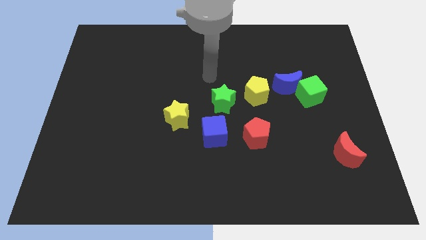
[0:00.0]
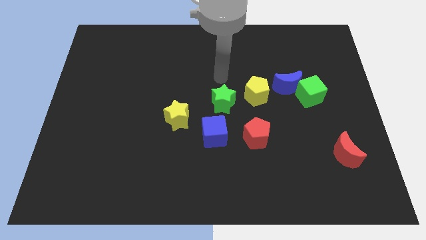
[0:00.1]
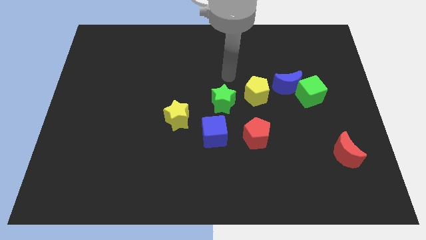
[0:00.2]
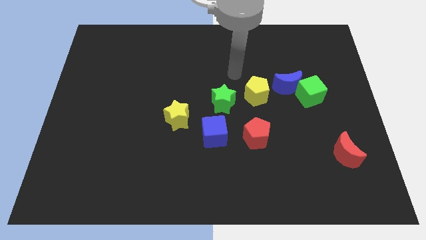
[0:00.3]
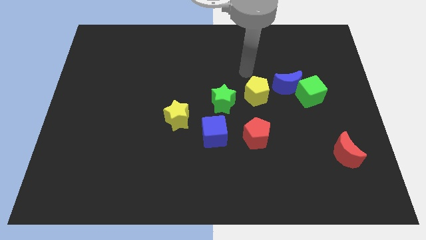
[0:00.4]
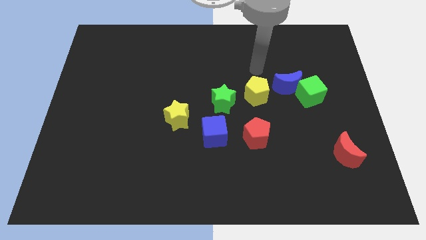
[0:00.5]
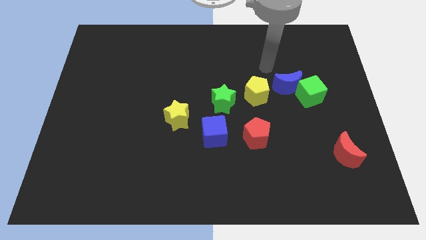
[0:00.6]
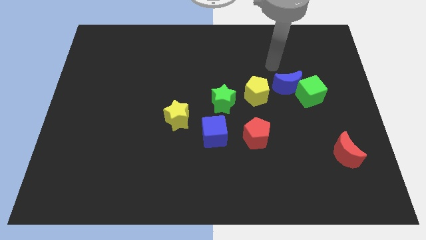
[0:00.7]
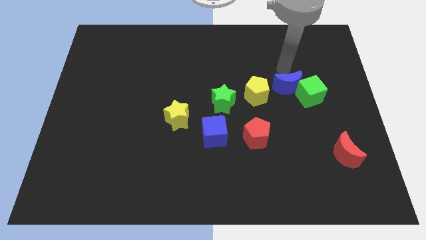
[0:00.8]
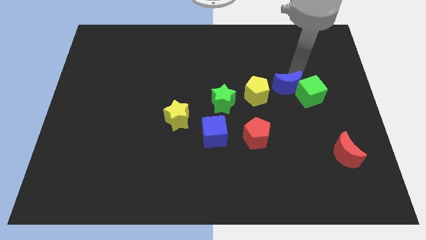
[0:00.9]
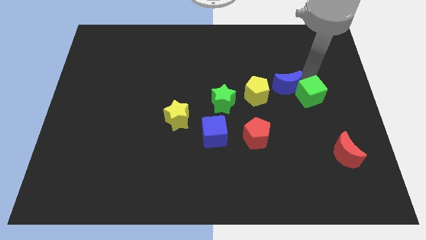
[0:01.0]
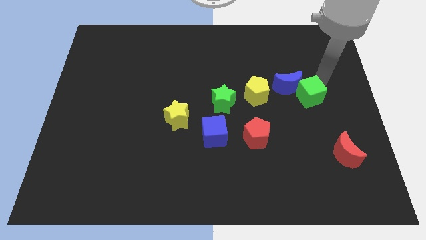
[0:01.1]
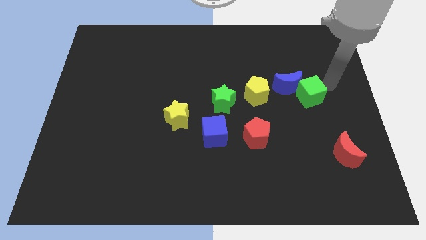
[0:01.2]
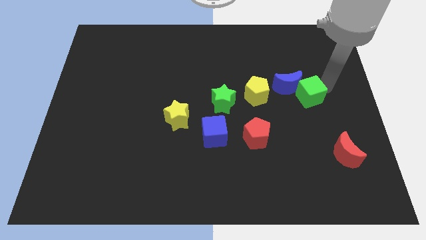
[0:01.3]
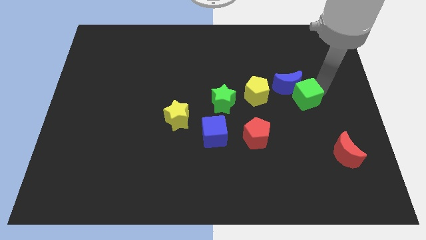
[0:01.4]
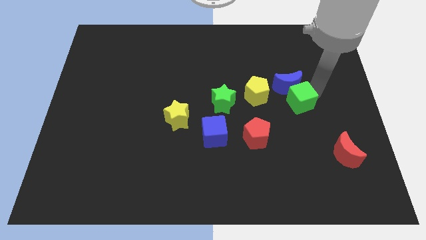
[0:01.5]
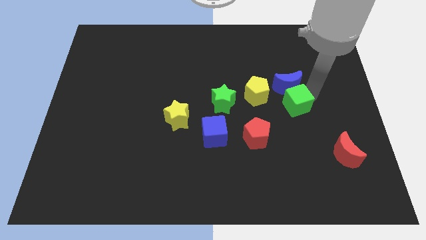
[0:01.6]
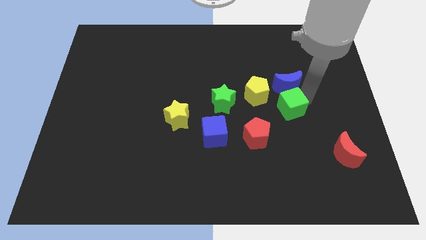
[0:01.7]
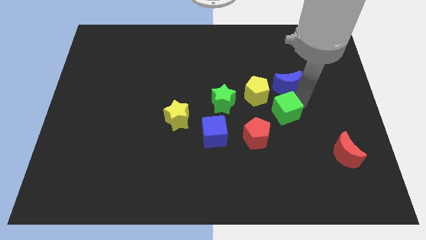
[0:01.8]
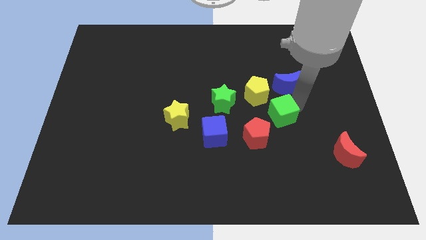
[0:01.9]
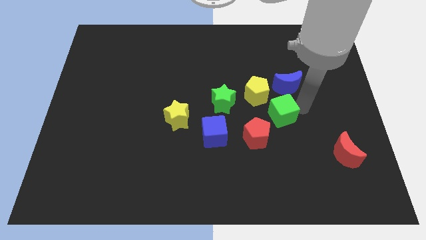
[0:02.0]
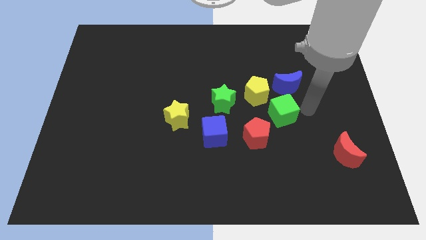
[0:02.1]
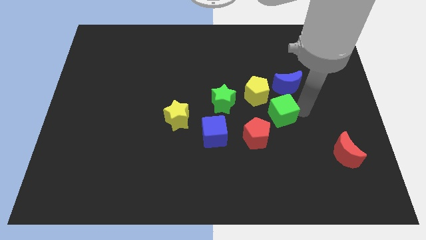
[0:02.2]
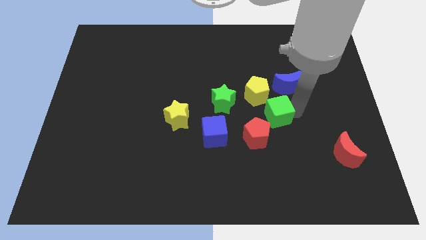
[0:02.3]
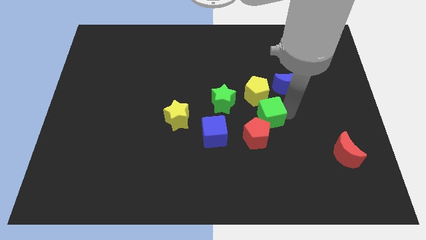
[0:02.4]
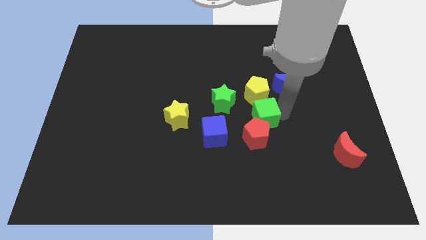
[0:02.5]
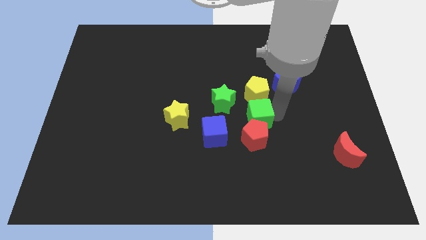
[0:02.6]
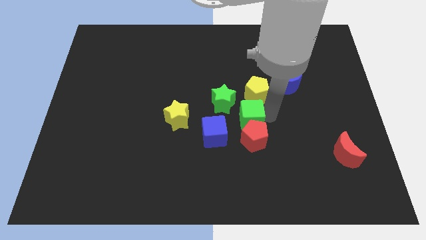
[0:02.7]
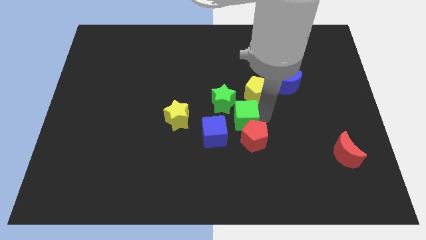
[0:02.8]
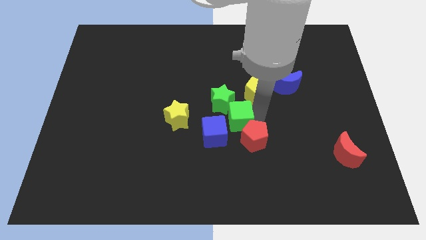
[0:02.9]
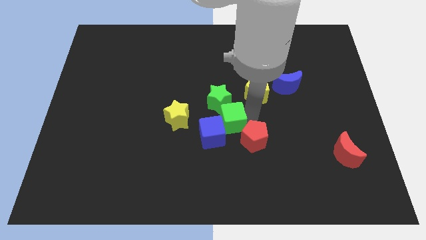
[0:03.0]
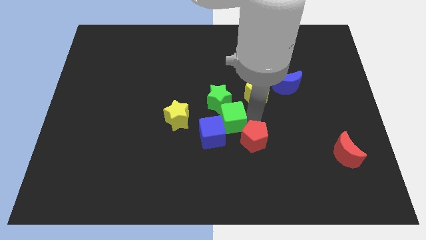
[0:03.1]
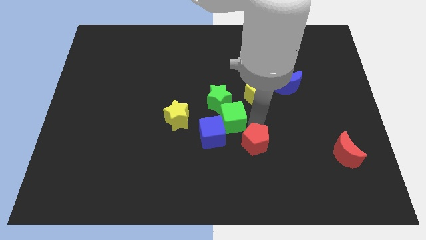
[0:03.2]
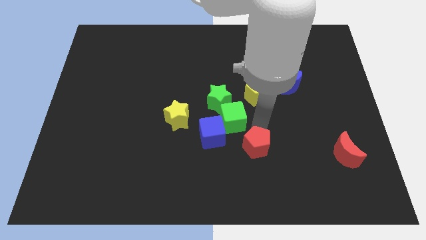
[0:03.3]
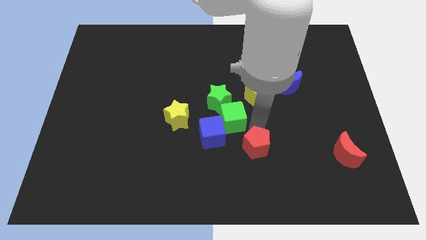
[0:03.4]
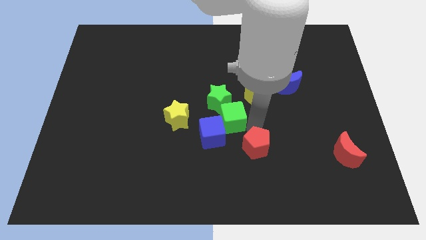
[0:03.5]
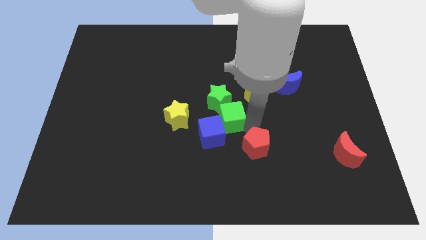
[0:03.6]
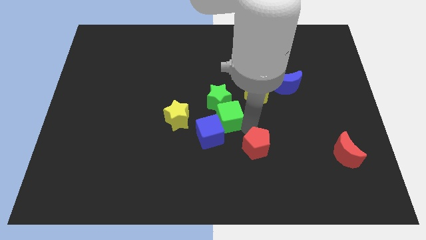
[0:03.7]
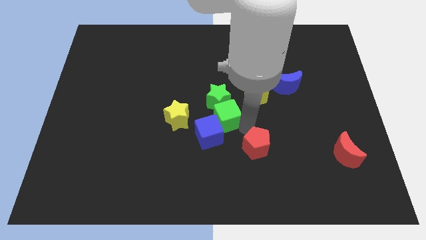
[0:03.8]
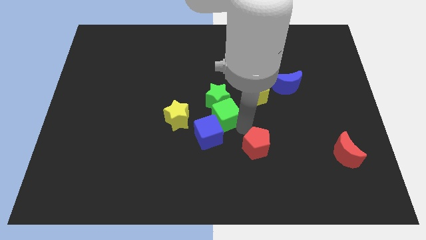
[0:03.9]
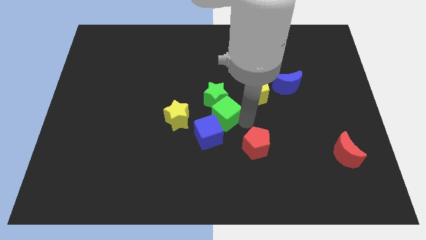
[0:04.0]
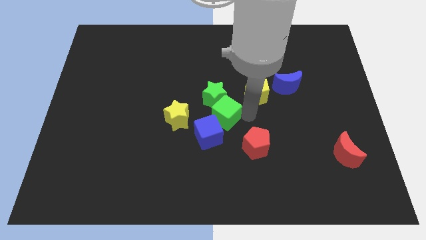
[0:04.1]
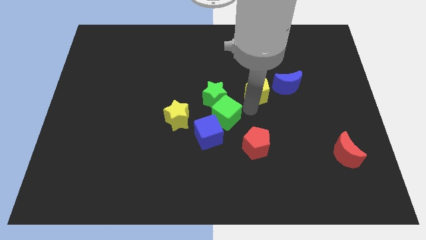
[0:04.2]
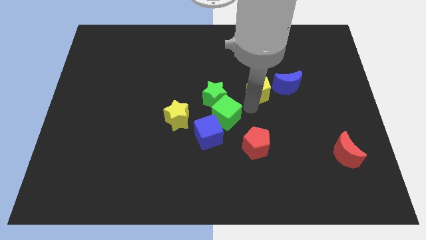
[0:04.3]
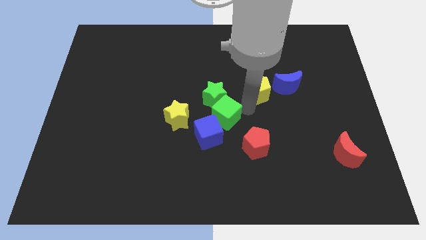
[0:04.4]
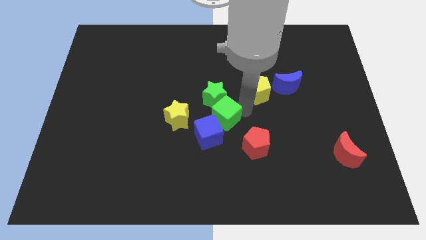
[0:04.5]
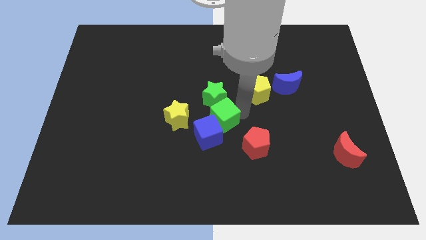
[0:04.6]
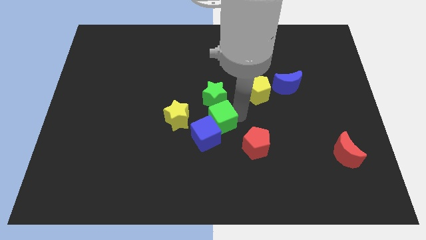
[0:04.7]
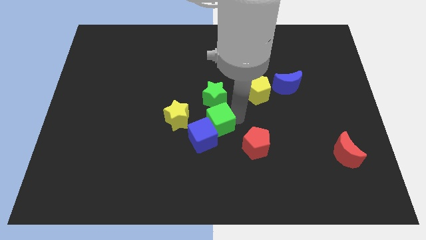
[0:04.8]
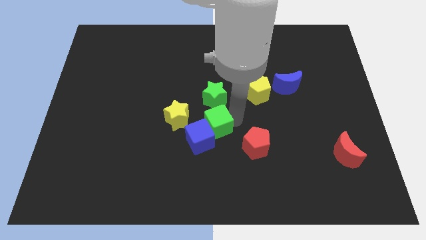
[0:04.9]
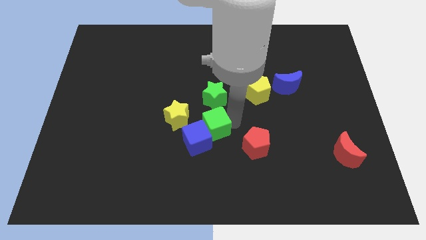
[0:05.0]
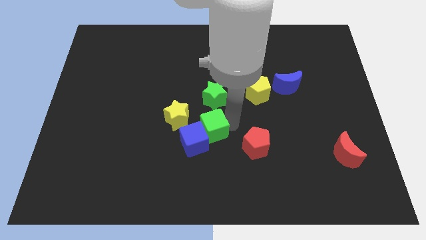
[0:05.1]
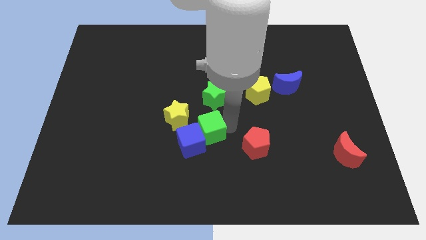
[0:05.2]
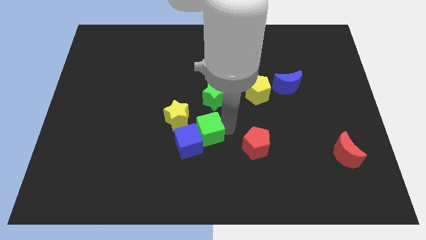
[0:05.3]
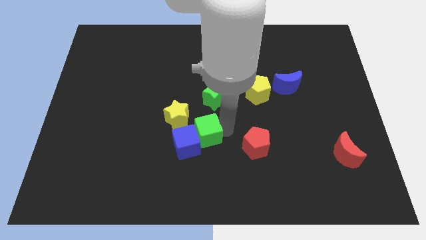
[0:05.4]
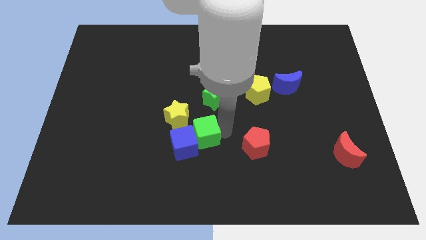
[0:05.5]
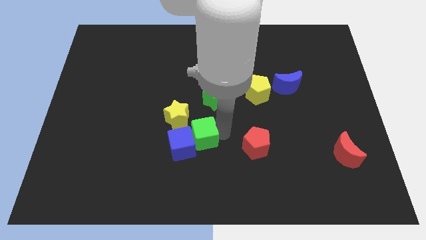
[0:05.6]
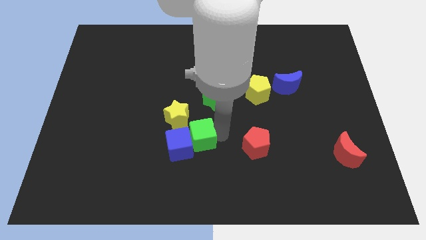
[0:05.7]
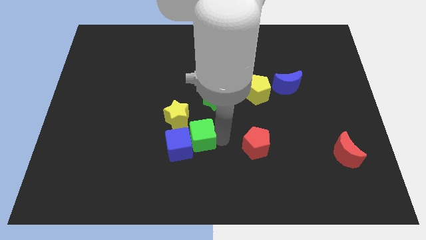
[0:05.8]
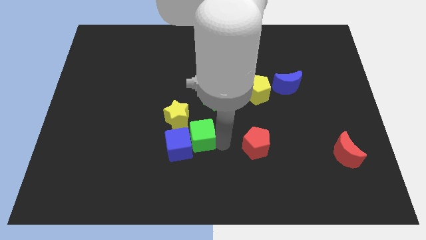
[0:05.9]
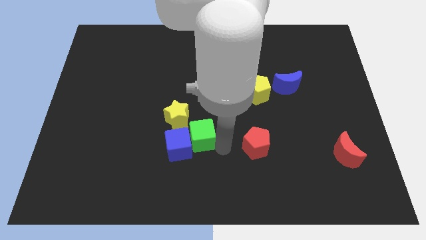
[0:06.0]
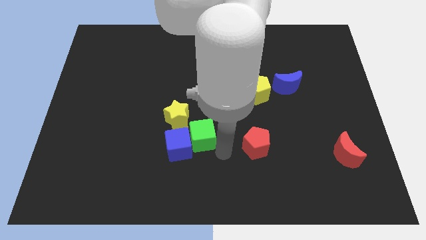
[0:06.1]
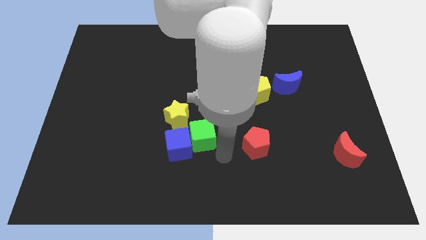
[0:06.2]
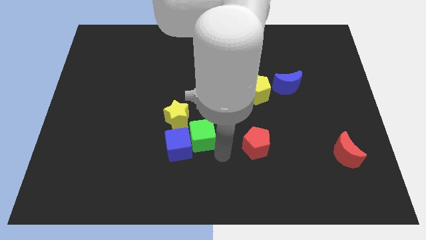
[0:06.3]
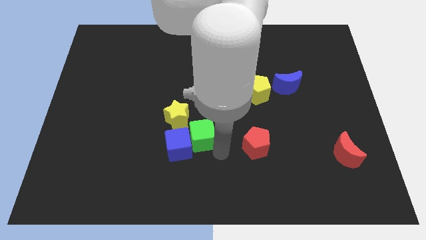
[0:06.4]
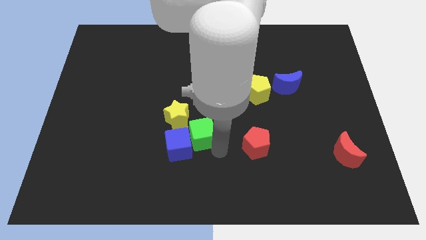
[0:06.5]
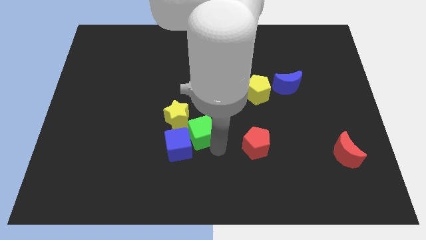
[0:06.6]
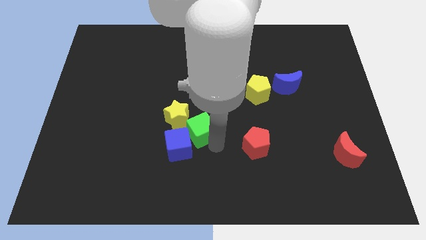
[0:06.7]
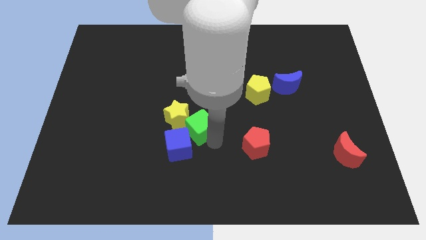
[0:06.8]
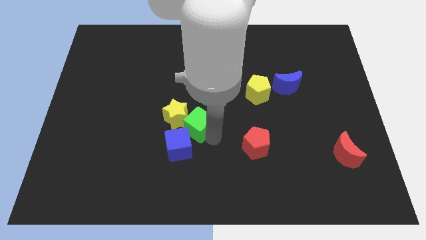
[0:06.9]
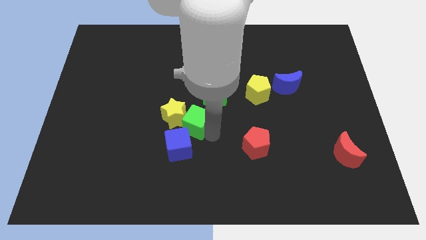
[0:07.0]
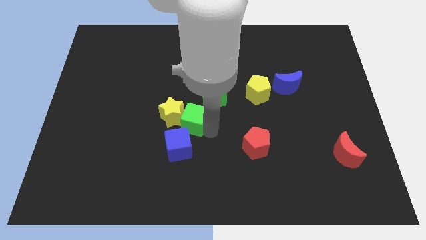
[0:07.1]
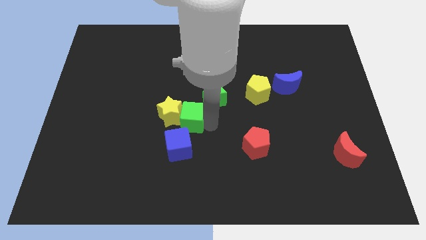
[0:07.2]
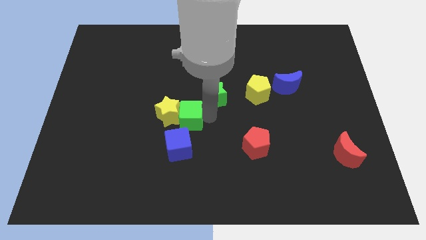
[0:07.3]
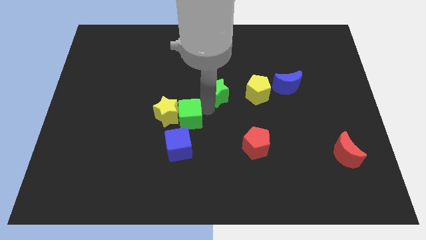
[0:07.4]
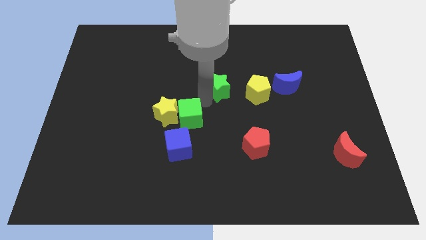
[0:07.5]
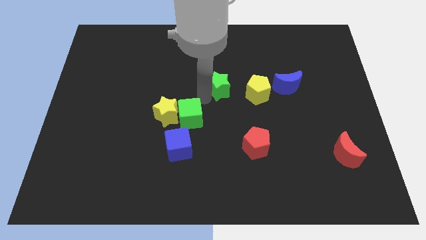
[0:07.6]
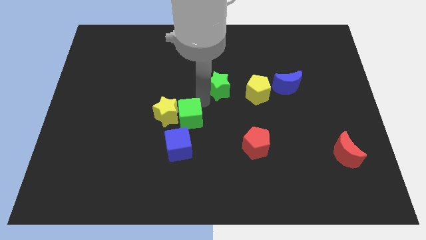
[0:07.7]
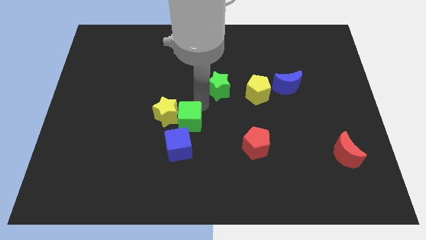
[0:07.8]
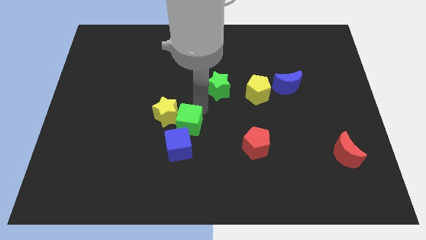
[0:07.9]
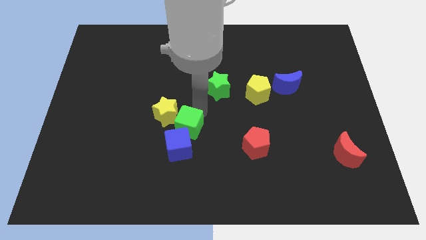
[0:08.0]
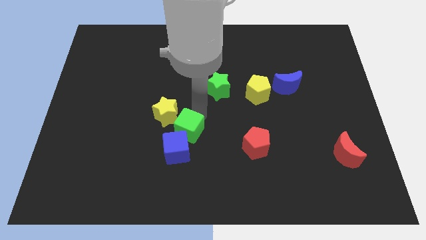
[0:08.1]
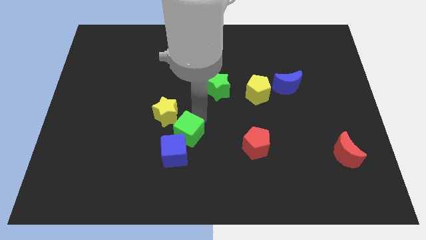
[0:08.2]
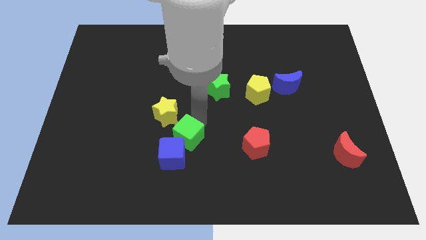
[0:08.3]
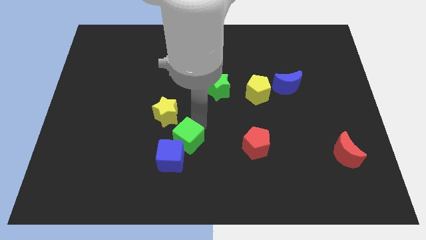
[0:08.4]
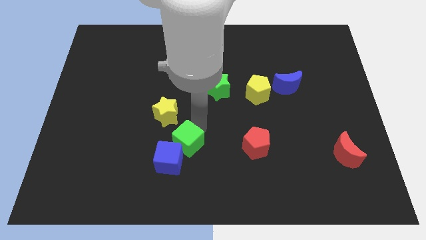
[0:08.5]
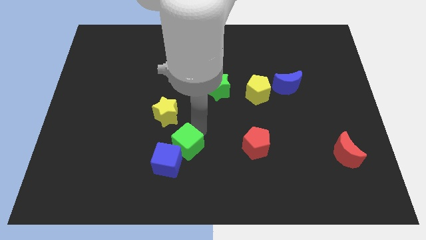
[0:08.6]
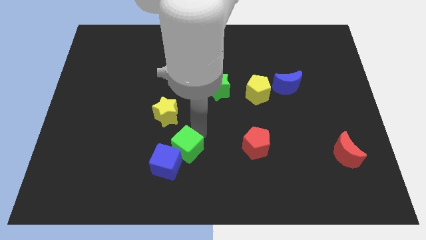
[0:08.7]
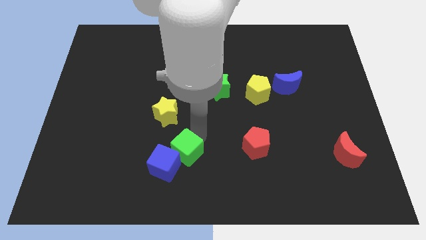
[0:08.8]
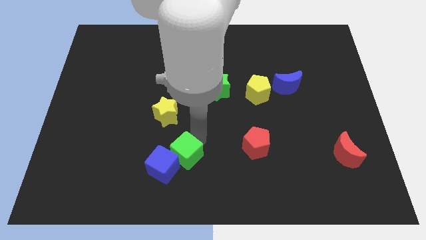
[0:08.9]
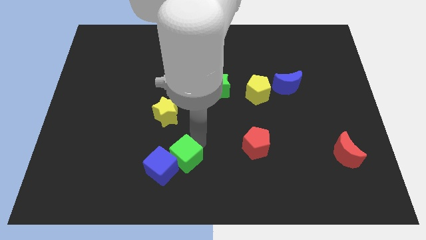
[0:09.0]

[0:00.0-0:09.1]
put the green cube to the bottom of the yellow star
